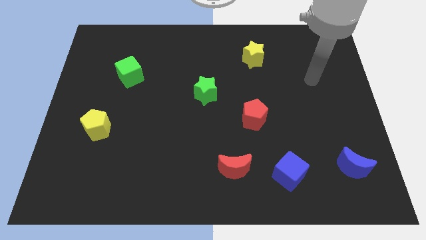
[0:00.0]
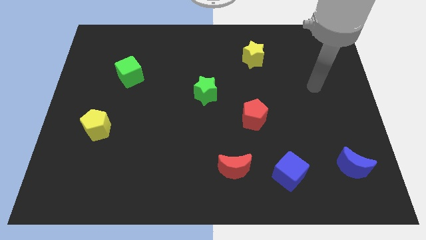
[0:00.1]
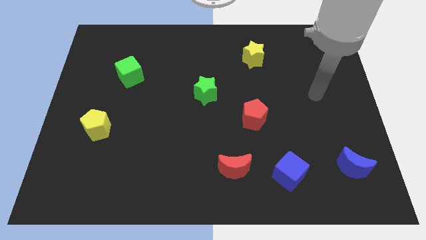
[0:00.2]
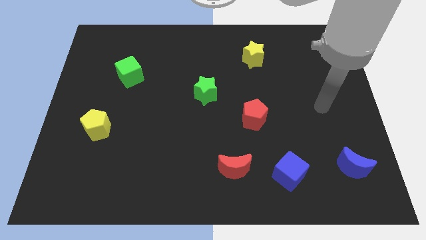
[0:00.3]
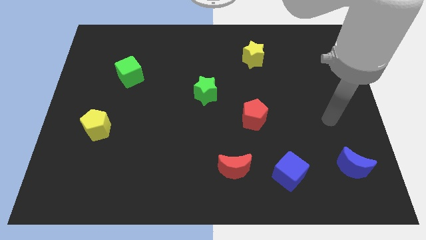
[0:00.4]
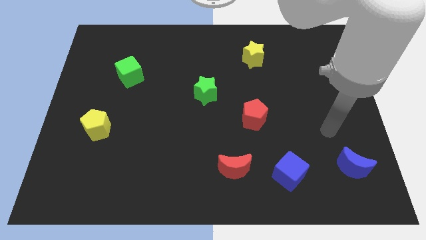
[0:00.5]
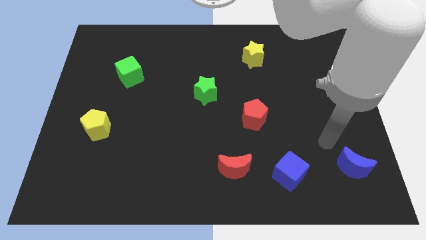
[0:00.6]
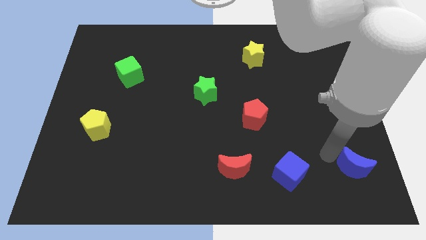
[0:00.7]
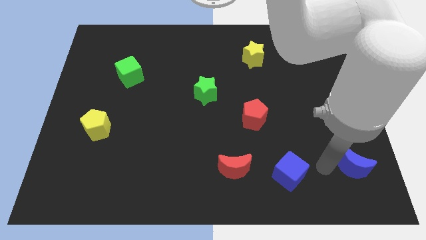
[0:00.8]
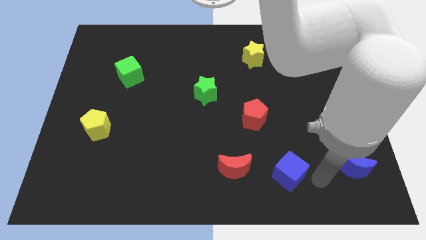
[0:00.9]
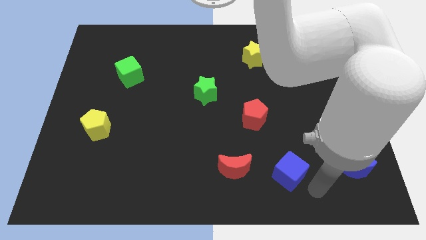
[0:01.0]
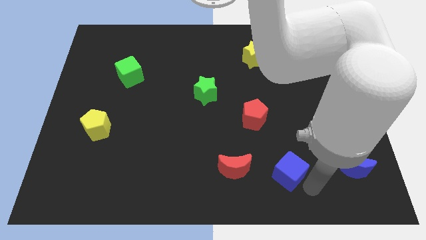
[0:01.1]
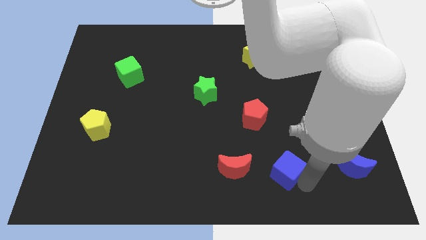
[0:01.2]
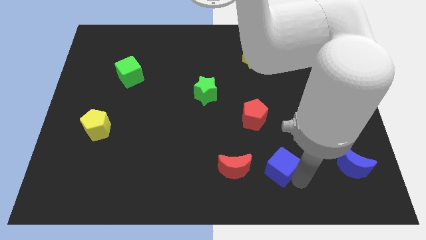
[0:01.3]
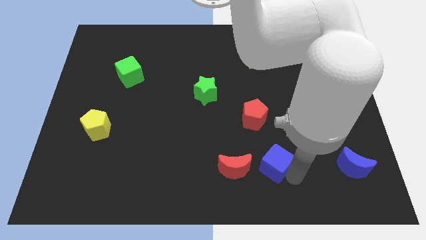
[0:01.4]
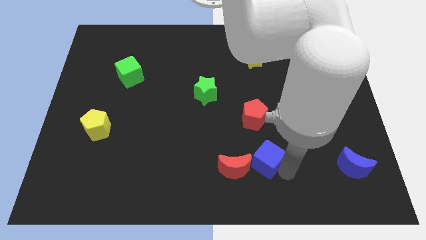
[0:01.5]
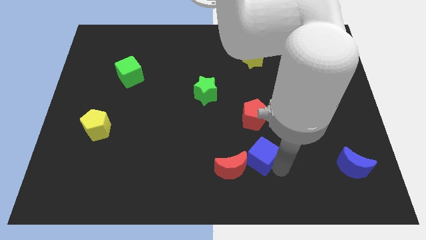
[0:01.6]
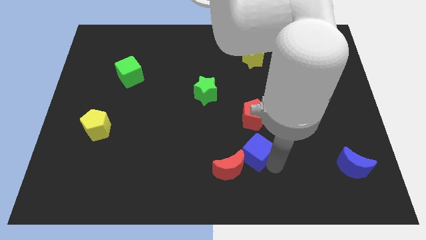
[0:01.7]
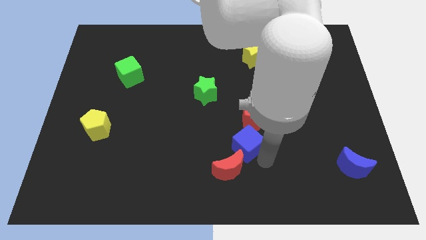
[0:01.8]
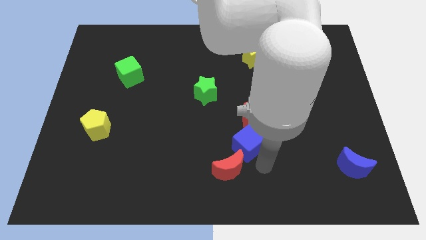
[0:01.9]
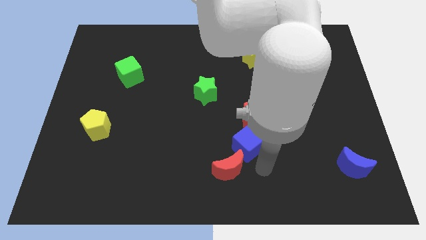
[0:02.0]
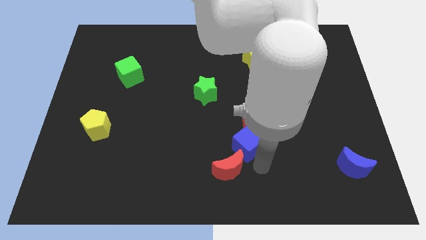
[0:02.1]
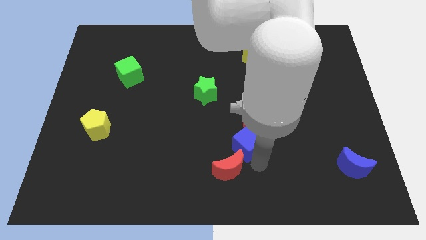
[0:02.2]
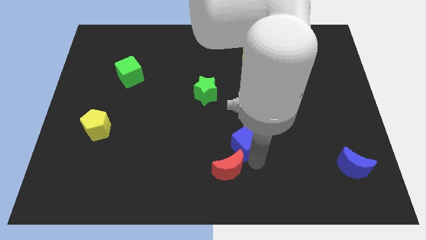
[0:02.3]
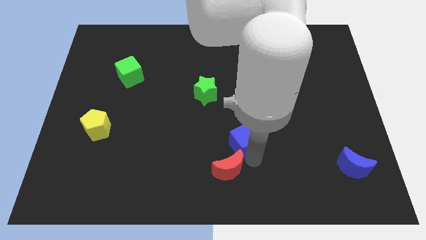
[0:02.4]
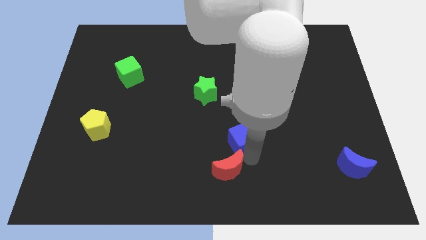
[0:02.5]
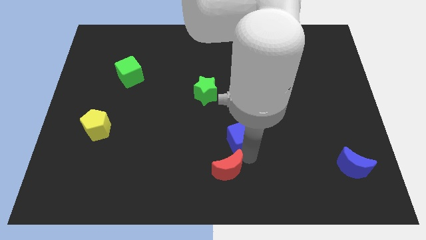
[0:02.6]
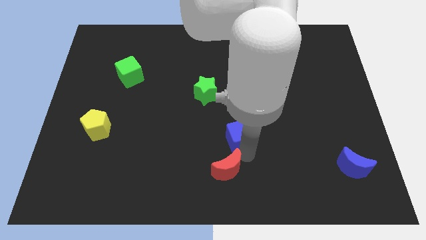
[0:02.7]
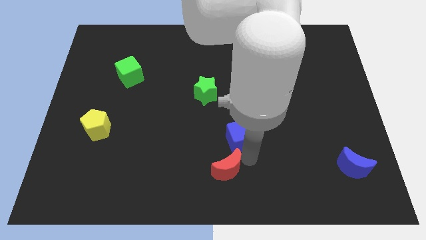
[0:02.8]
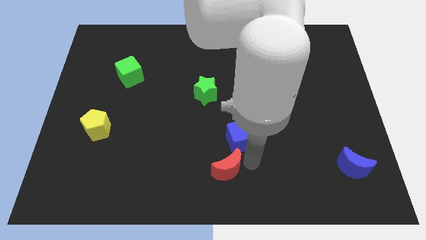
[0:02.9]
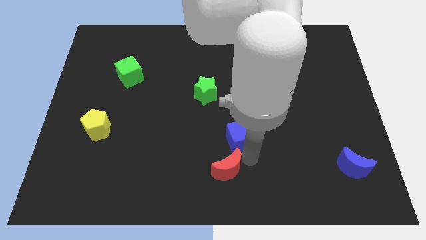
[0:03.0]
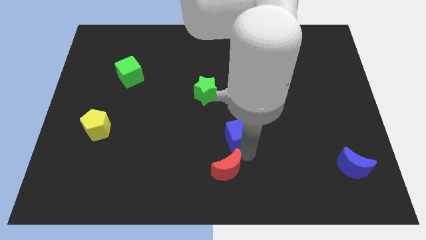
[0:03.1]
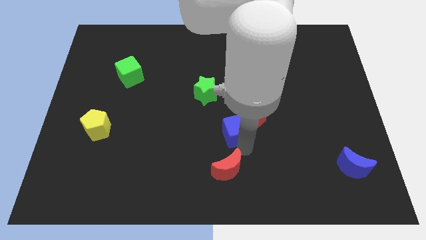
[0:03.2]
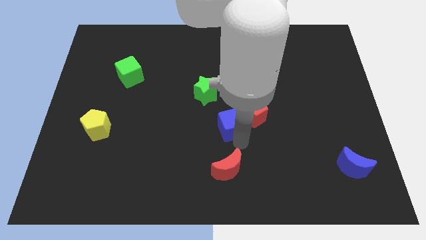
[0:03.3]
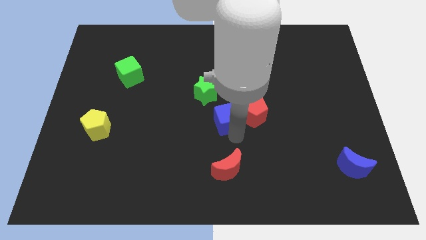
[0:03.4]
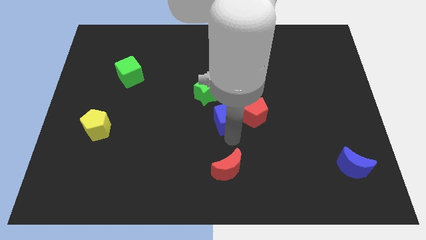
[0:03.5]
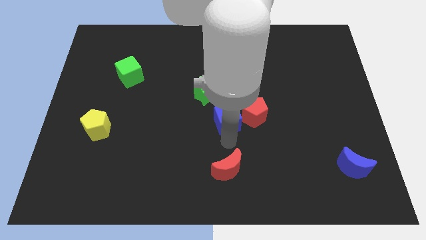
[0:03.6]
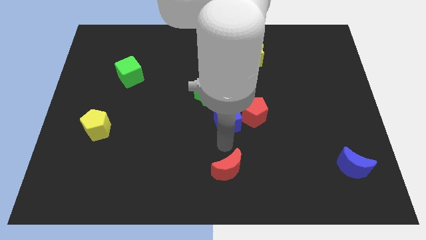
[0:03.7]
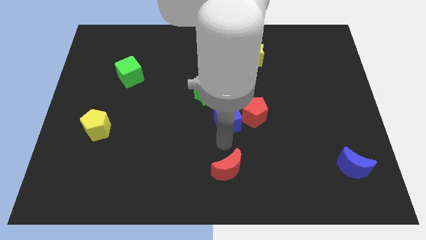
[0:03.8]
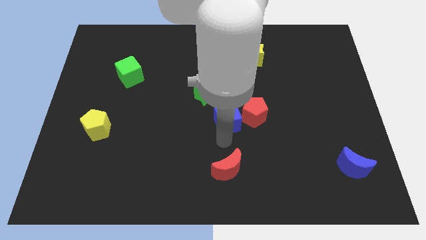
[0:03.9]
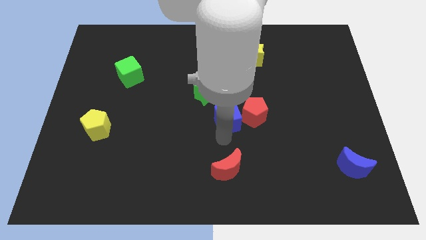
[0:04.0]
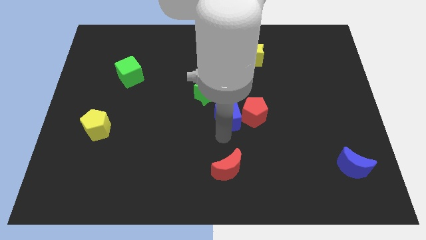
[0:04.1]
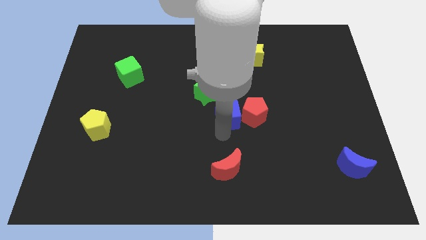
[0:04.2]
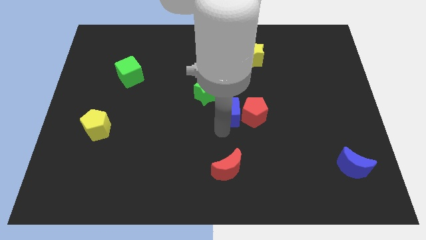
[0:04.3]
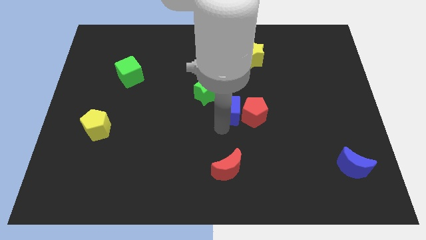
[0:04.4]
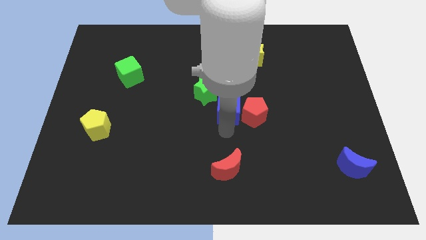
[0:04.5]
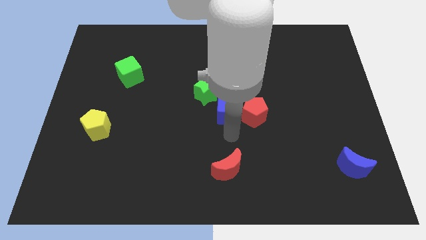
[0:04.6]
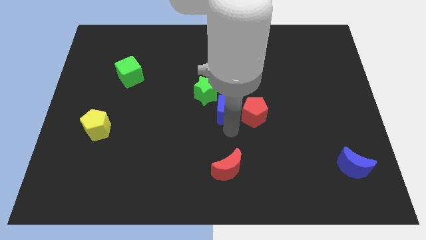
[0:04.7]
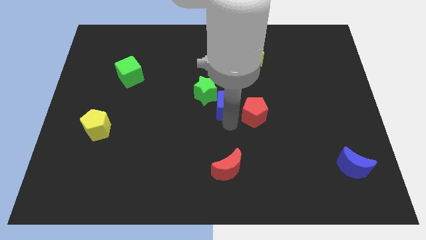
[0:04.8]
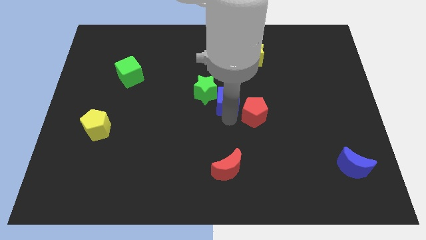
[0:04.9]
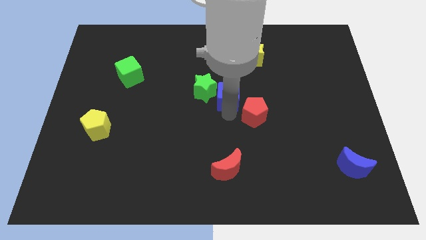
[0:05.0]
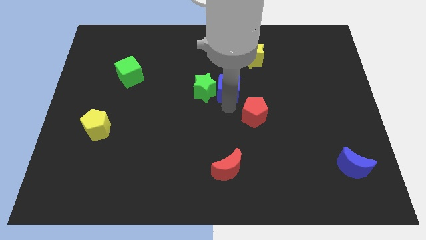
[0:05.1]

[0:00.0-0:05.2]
push the blue cube to the top right of the green star

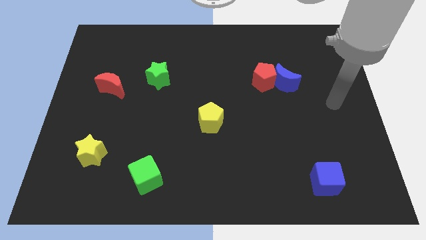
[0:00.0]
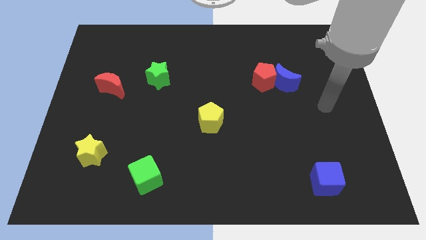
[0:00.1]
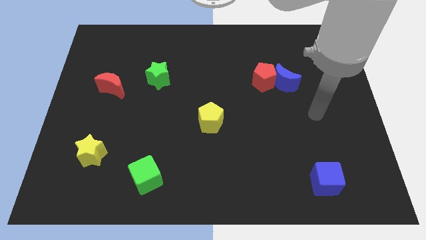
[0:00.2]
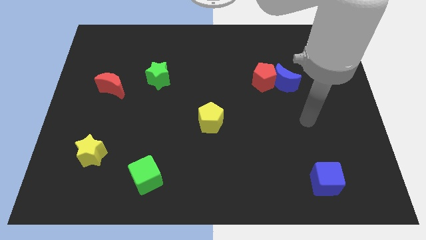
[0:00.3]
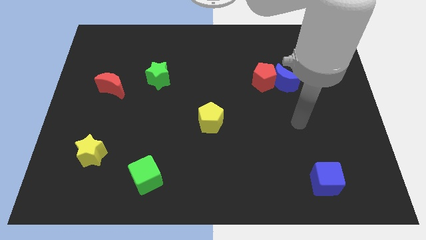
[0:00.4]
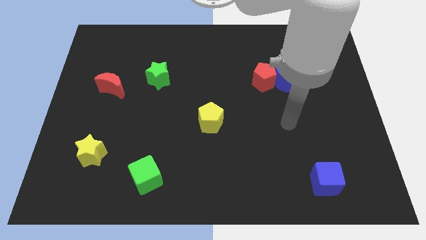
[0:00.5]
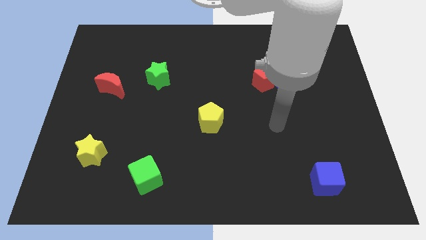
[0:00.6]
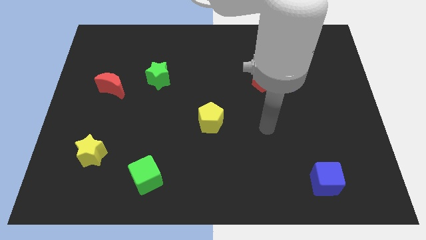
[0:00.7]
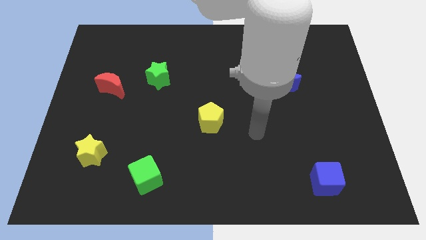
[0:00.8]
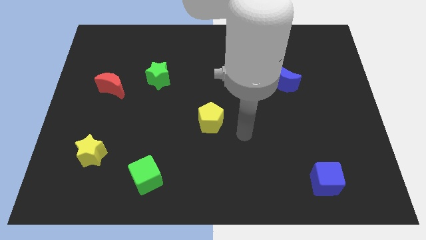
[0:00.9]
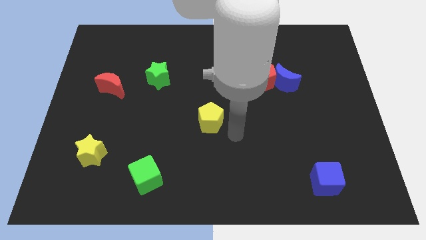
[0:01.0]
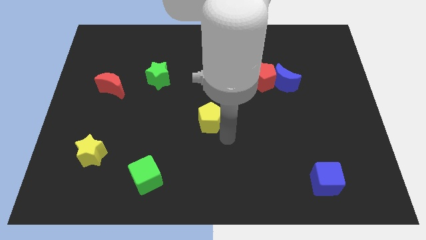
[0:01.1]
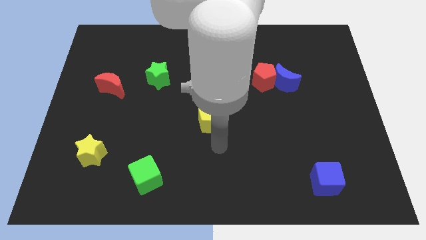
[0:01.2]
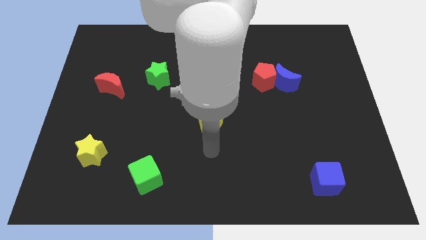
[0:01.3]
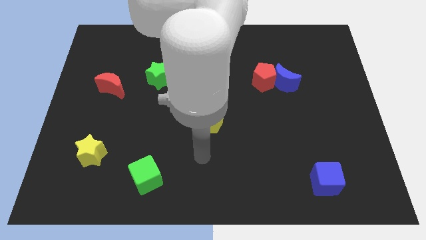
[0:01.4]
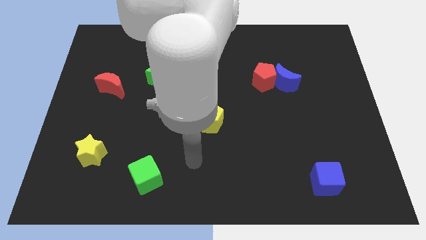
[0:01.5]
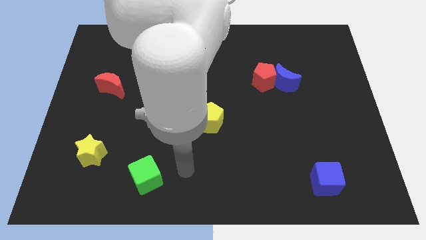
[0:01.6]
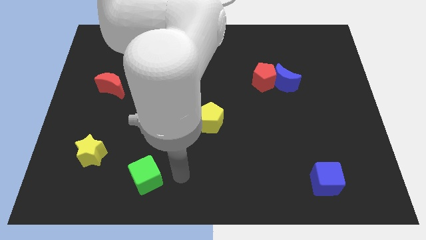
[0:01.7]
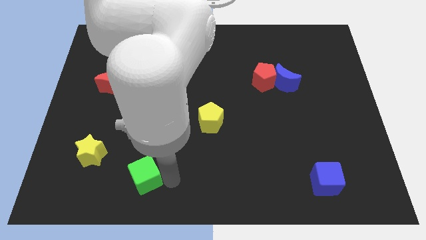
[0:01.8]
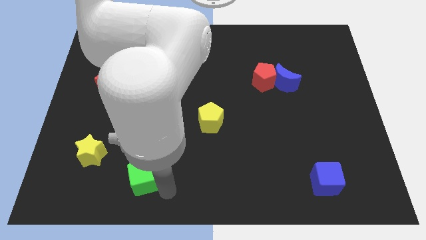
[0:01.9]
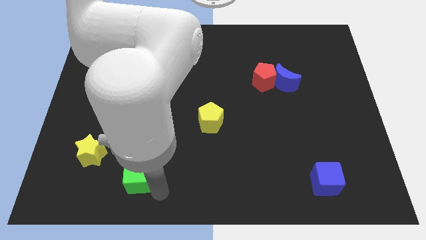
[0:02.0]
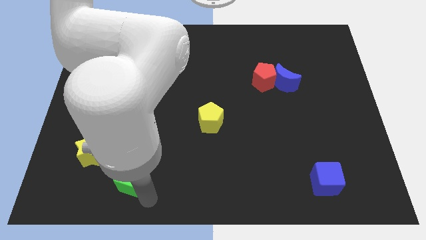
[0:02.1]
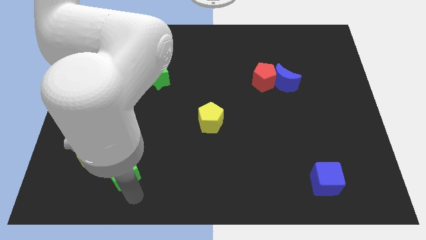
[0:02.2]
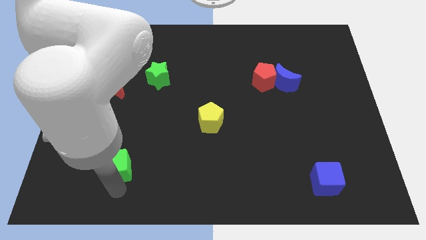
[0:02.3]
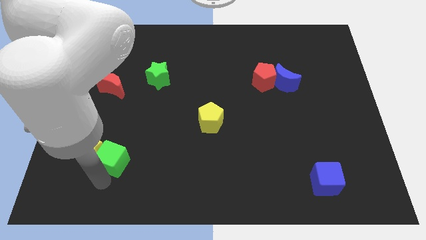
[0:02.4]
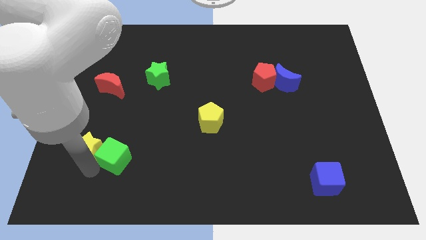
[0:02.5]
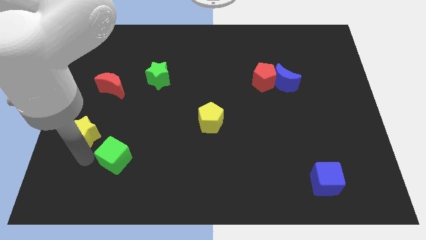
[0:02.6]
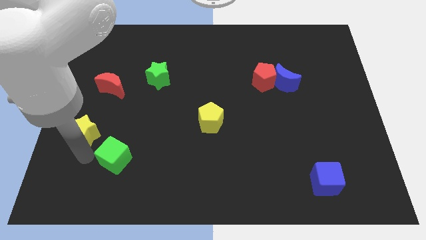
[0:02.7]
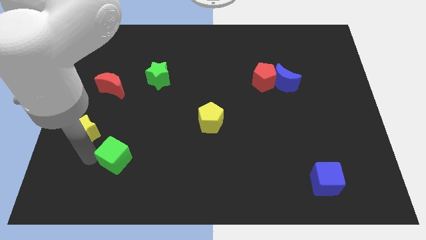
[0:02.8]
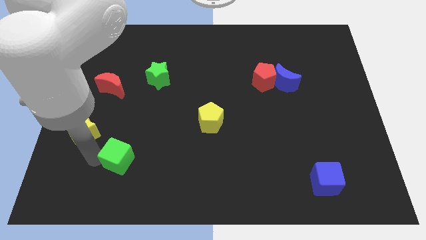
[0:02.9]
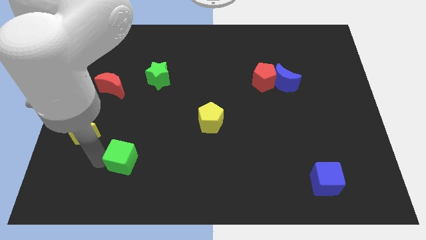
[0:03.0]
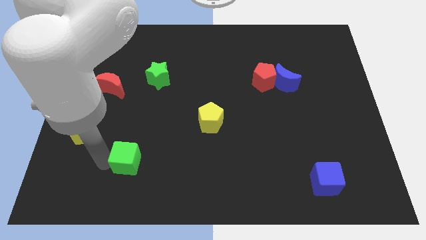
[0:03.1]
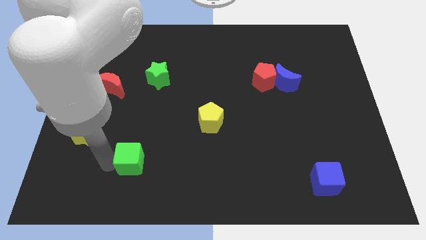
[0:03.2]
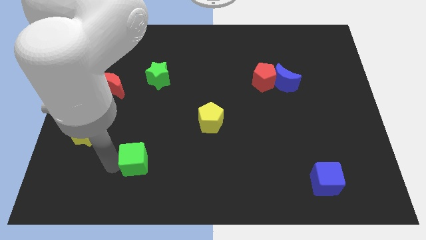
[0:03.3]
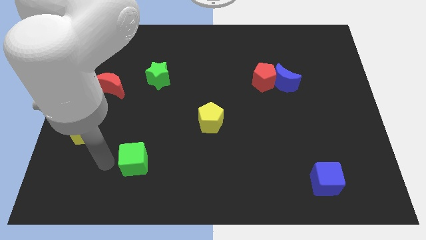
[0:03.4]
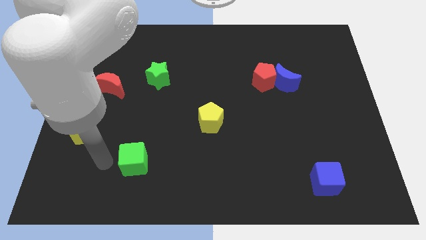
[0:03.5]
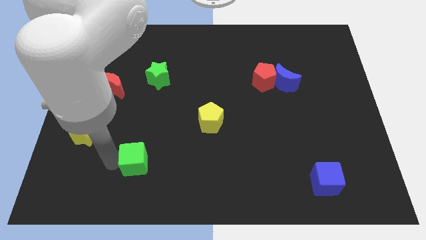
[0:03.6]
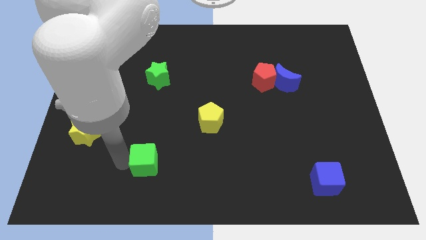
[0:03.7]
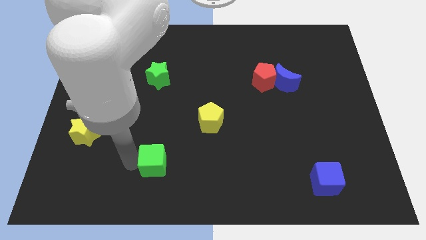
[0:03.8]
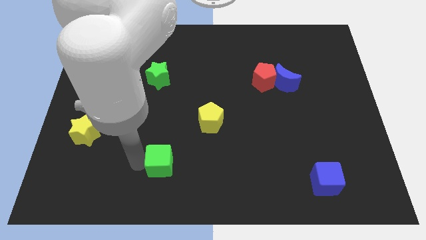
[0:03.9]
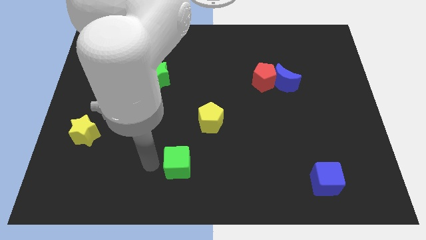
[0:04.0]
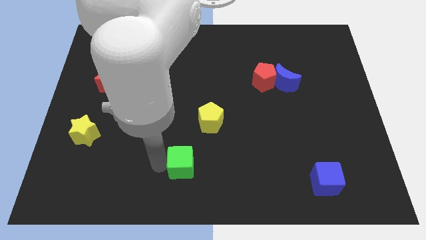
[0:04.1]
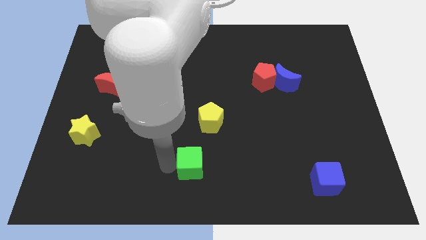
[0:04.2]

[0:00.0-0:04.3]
put the green cube to the bottom side of the yellow pentagon
